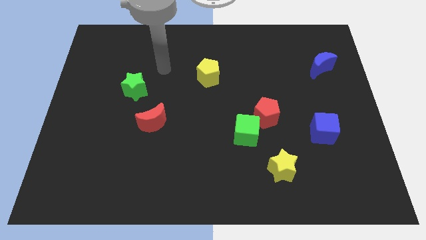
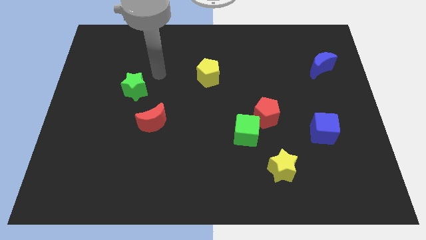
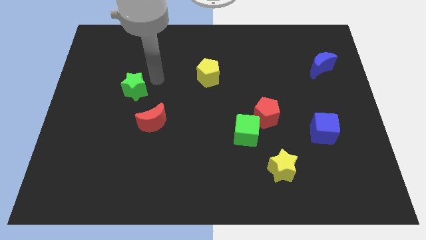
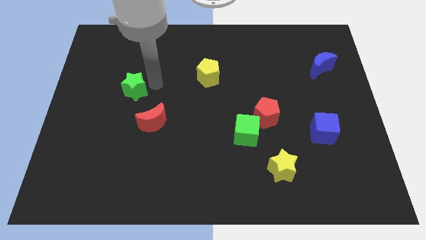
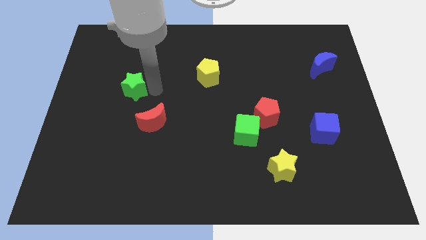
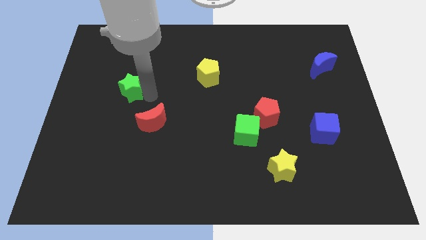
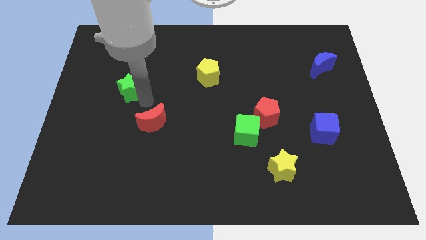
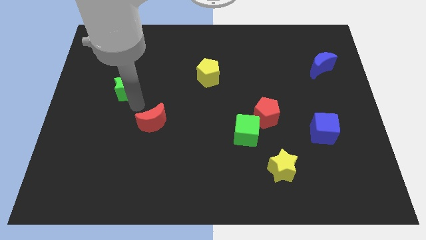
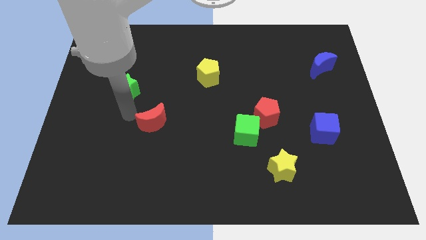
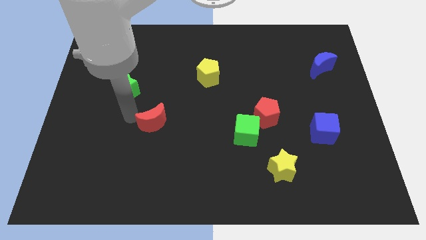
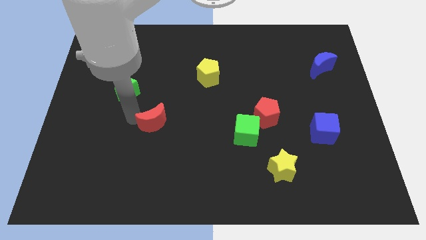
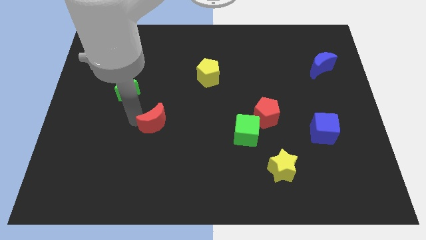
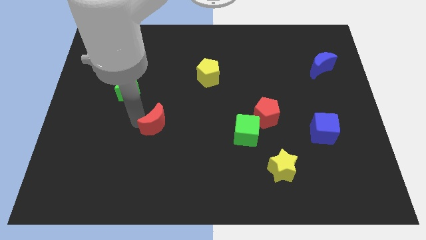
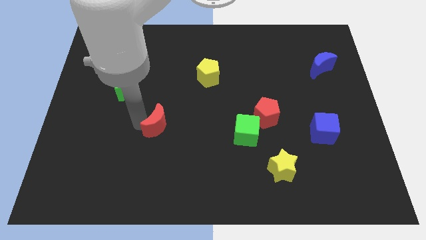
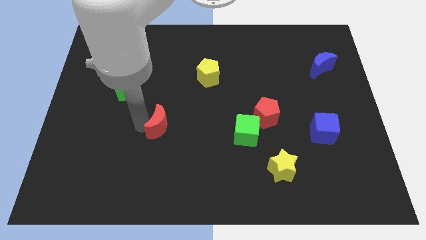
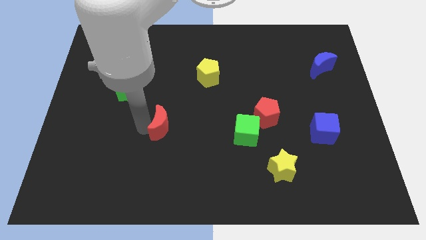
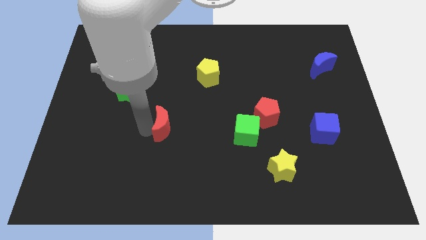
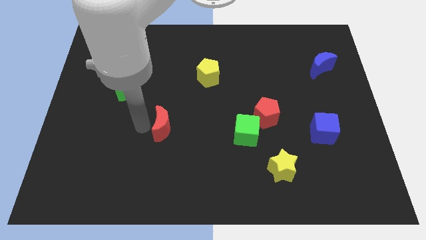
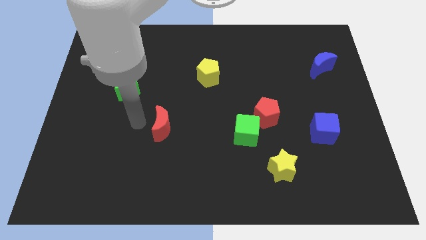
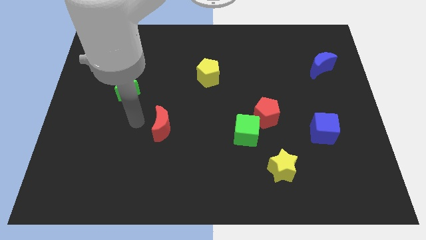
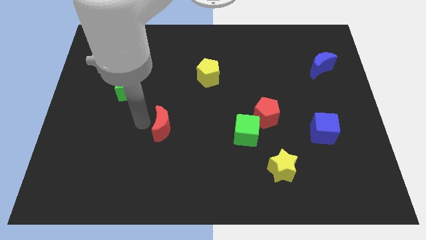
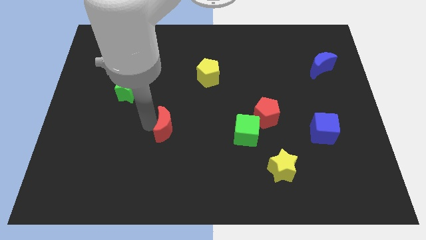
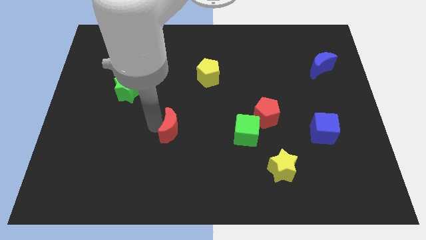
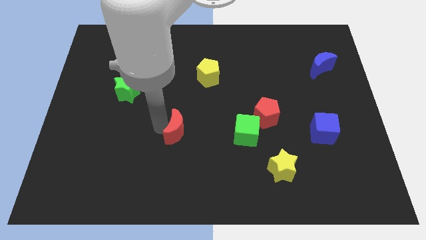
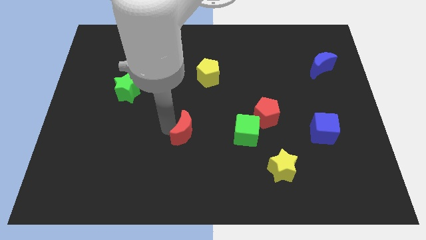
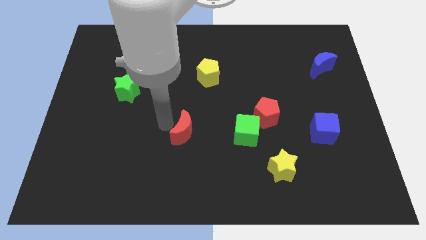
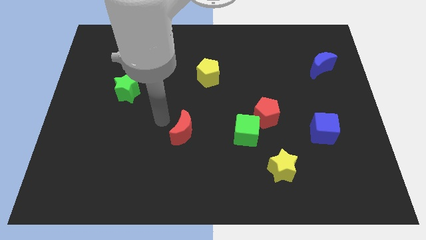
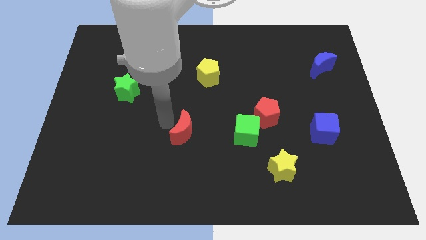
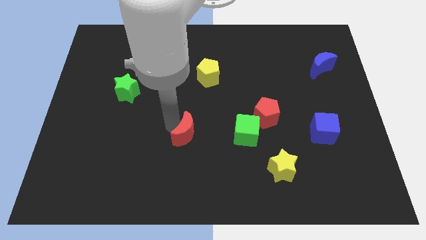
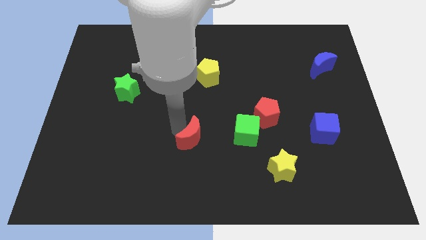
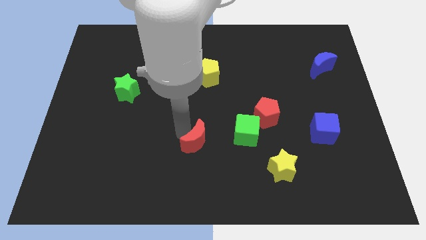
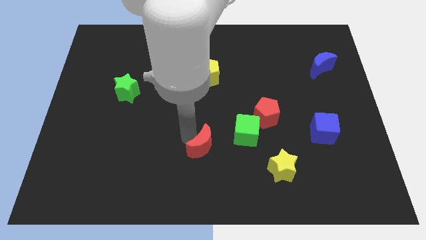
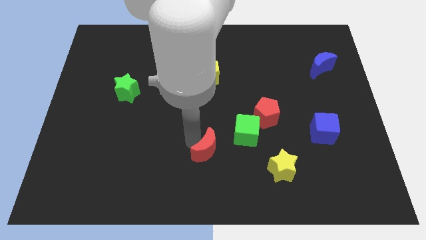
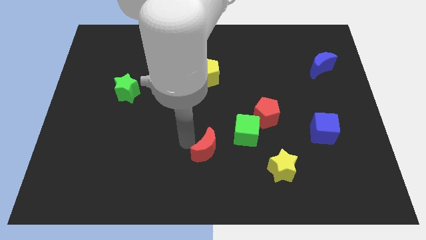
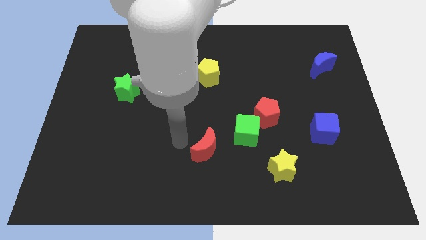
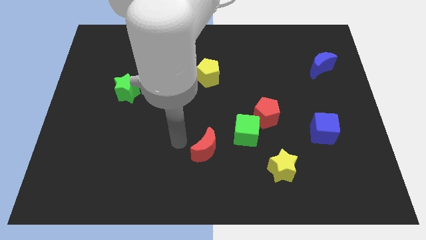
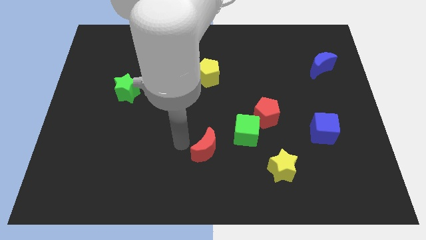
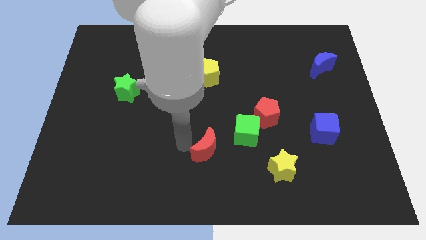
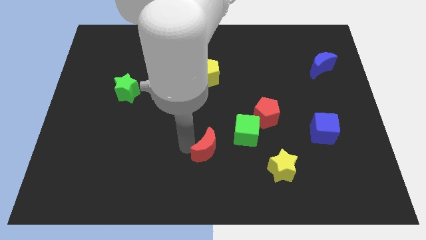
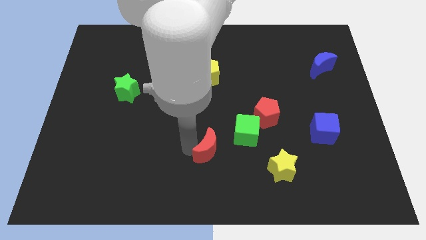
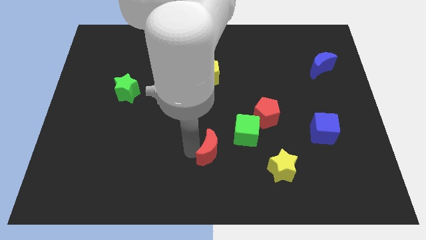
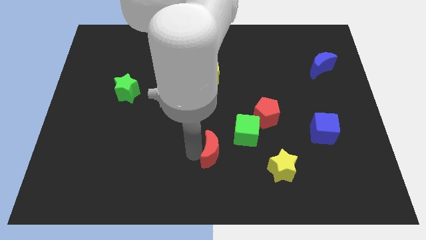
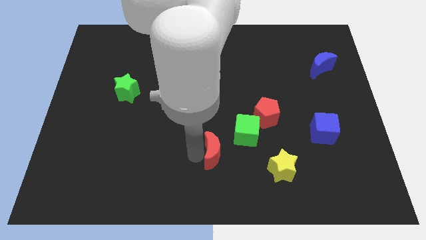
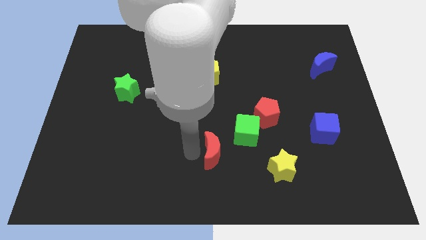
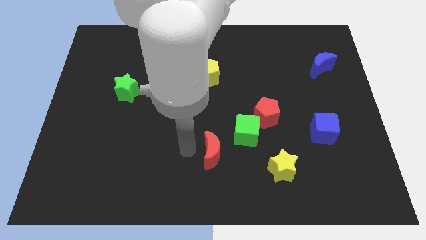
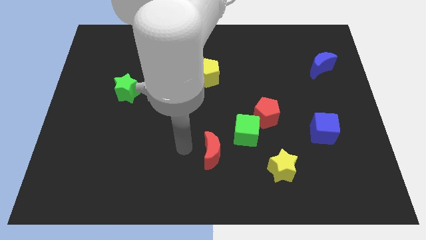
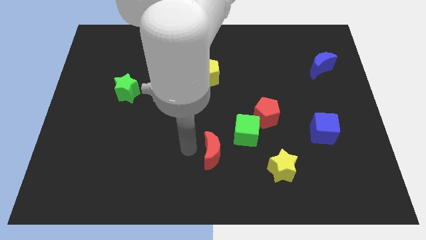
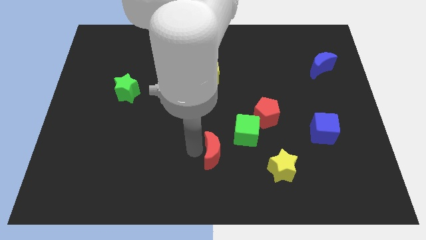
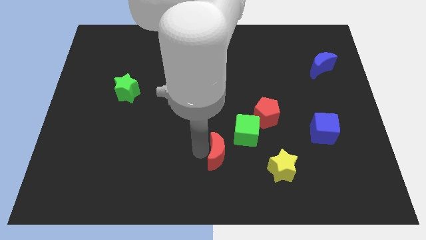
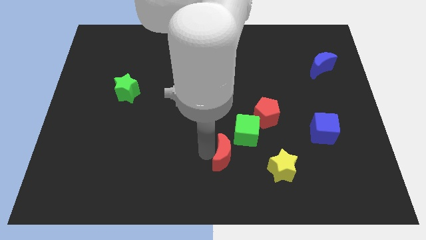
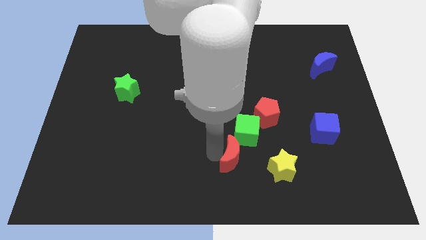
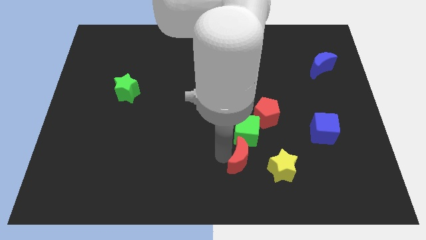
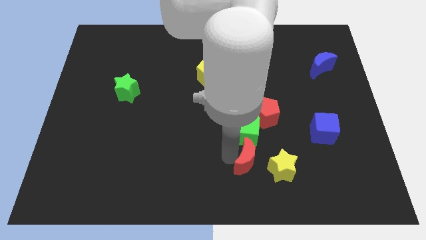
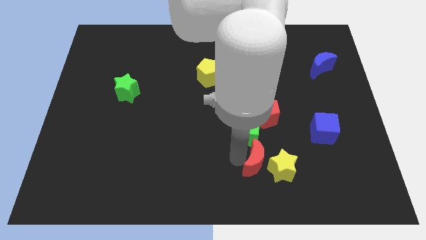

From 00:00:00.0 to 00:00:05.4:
slide the red moon next to the yellow star
